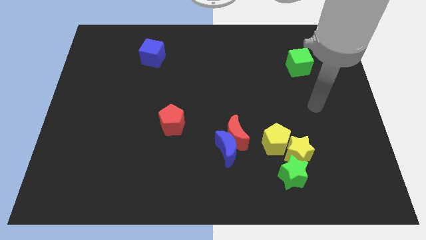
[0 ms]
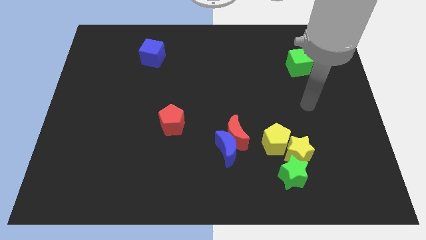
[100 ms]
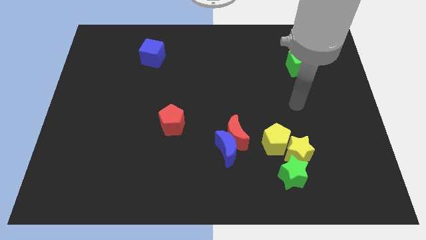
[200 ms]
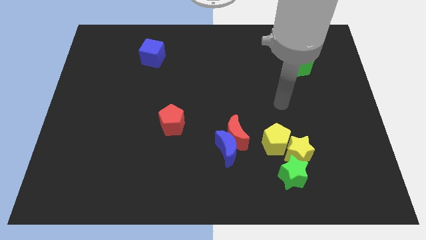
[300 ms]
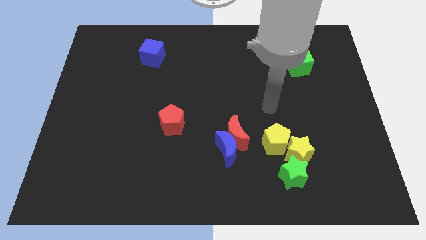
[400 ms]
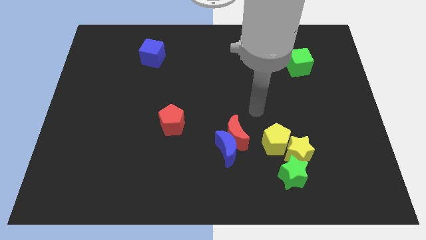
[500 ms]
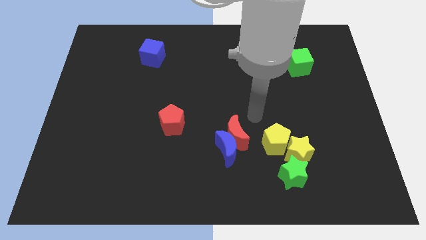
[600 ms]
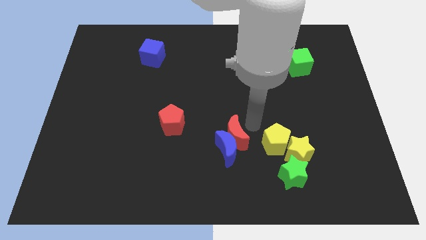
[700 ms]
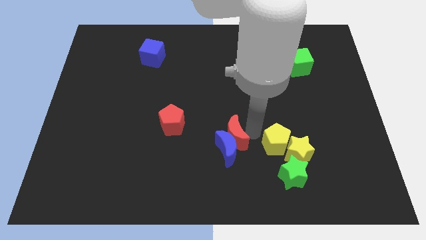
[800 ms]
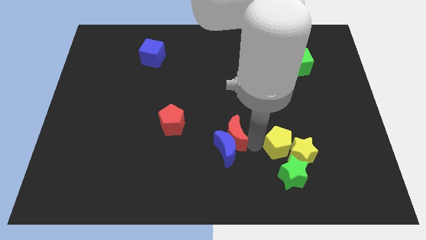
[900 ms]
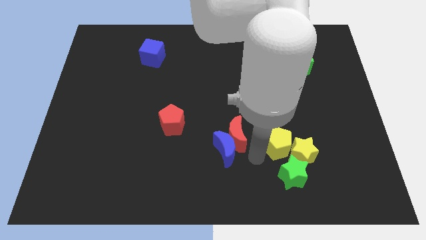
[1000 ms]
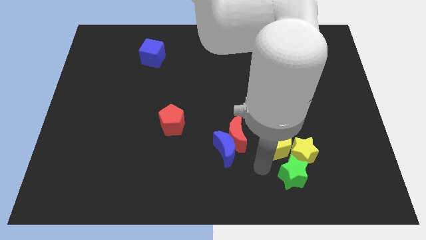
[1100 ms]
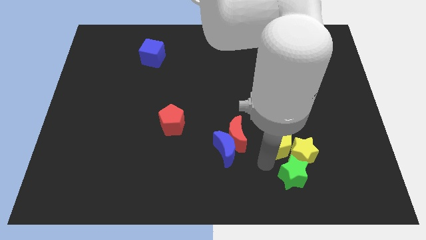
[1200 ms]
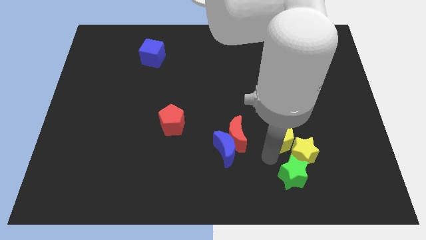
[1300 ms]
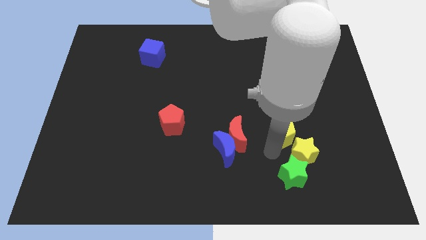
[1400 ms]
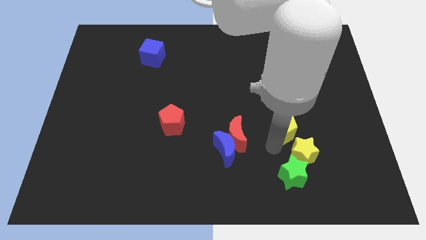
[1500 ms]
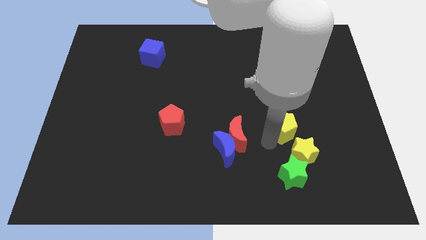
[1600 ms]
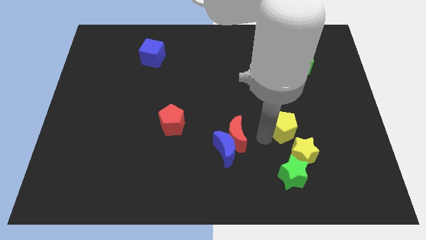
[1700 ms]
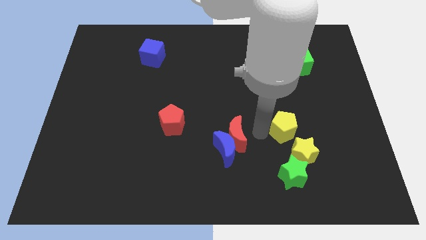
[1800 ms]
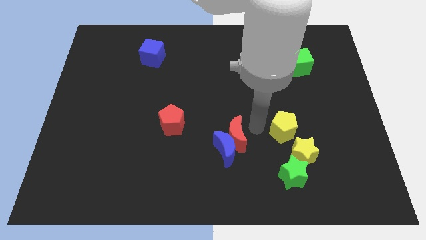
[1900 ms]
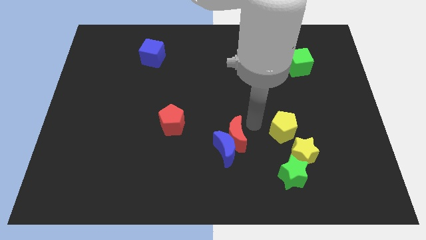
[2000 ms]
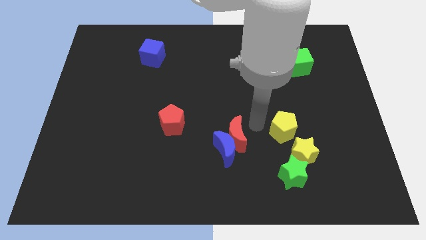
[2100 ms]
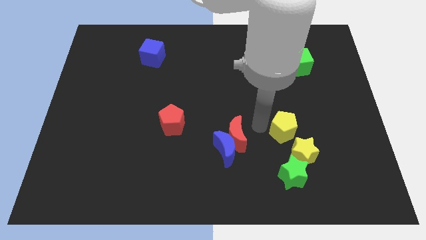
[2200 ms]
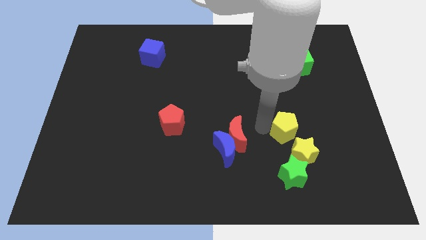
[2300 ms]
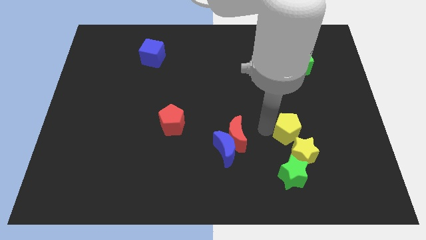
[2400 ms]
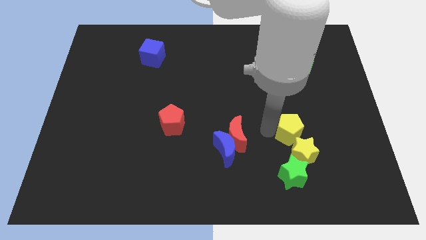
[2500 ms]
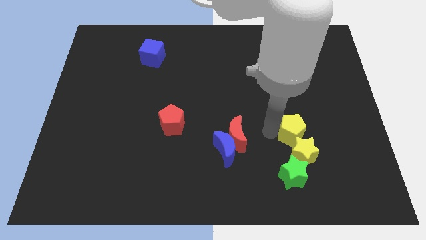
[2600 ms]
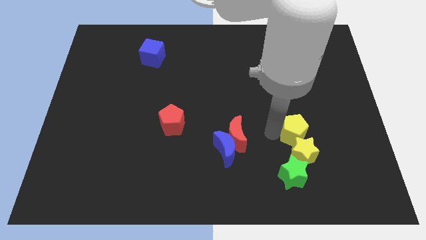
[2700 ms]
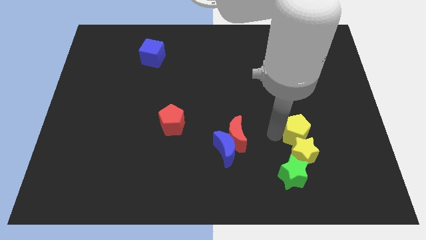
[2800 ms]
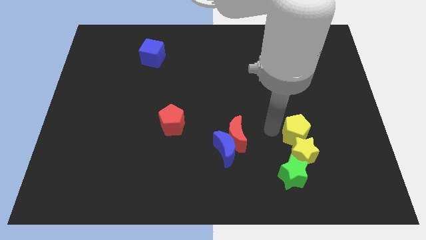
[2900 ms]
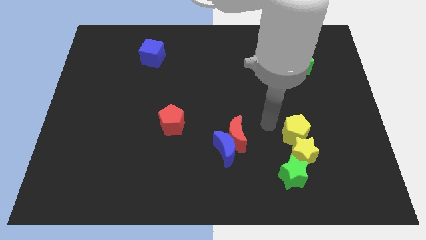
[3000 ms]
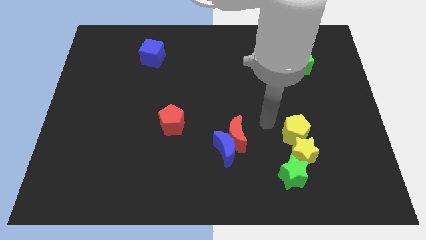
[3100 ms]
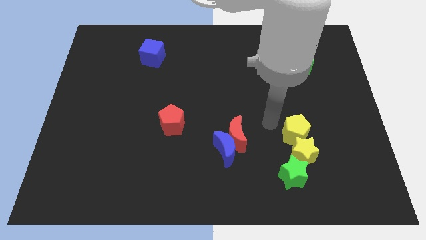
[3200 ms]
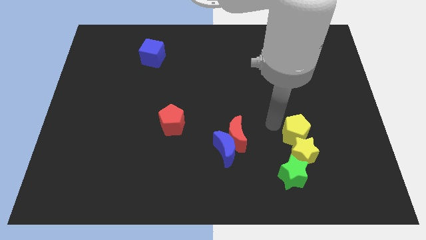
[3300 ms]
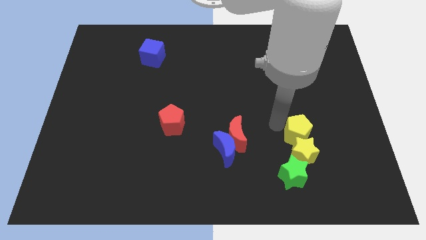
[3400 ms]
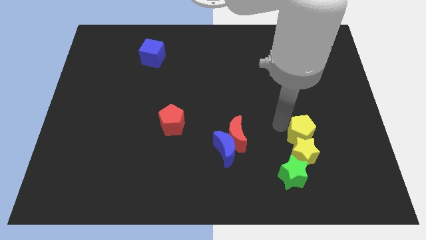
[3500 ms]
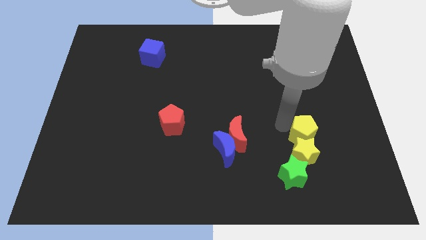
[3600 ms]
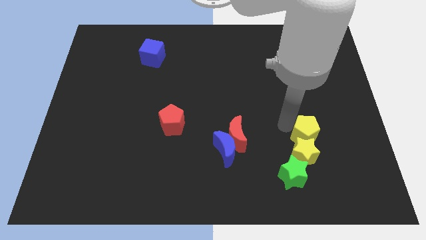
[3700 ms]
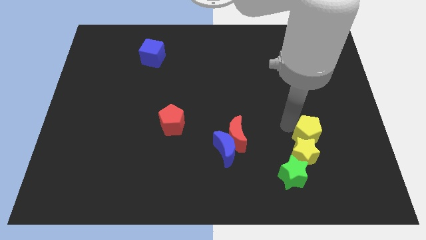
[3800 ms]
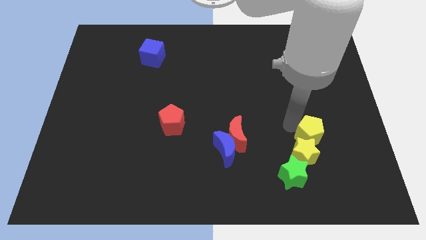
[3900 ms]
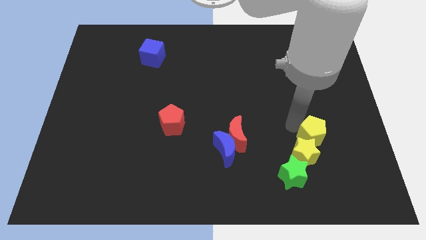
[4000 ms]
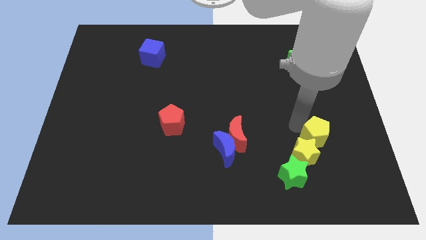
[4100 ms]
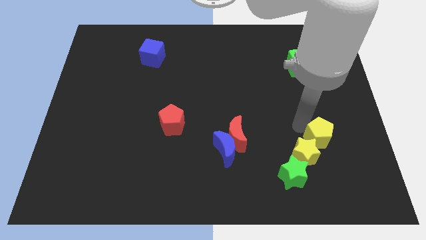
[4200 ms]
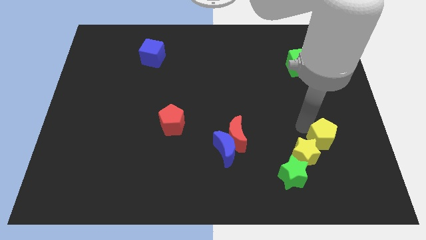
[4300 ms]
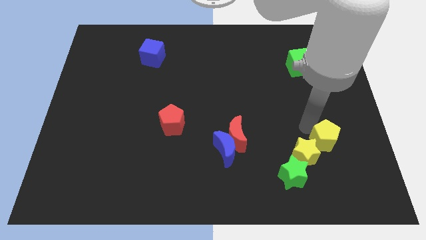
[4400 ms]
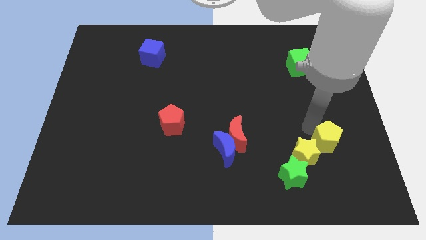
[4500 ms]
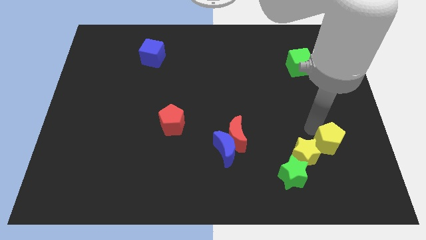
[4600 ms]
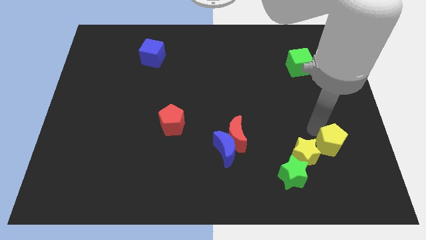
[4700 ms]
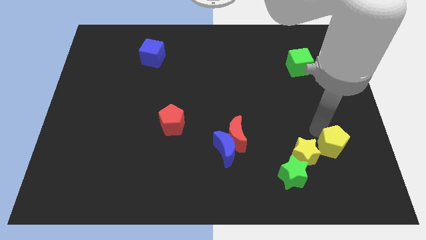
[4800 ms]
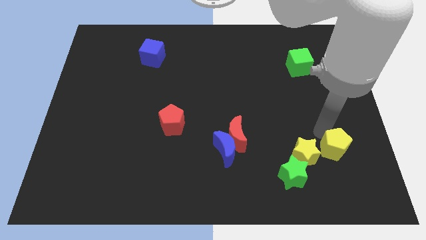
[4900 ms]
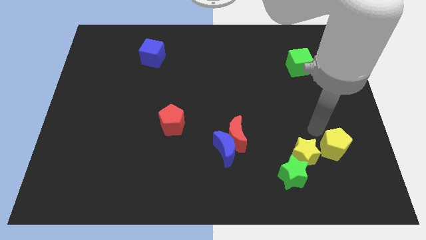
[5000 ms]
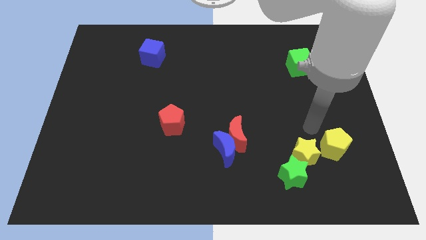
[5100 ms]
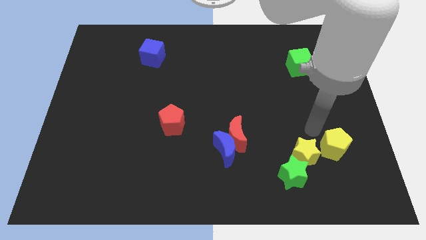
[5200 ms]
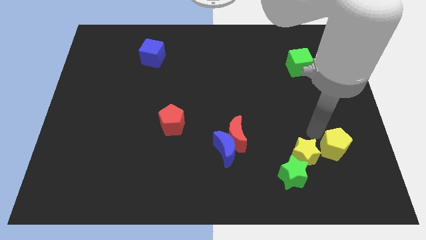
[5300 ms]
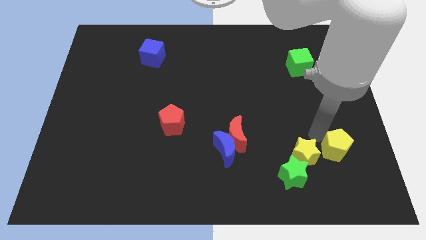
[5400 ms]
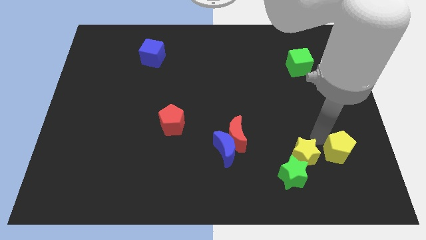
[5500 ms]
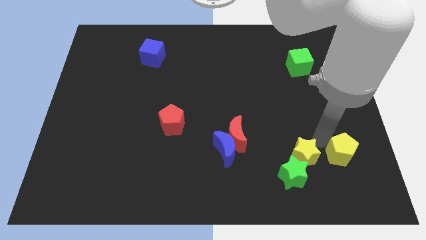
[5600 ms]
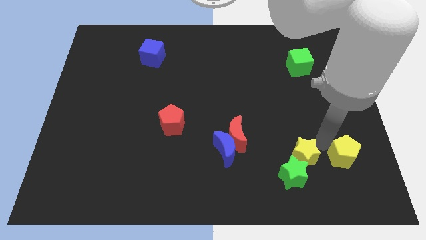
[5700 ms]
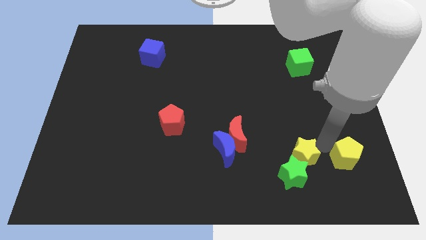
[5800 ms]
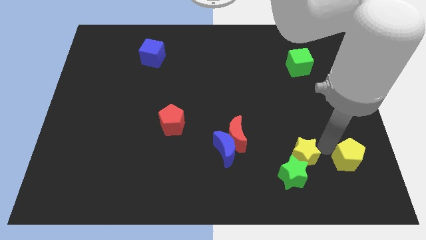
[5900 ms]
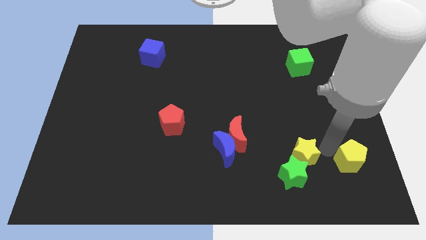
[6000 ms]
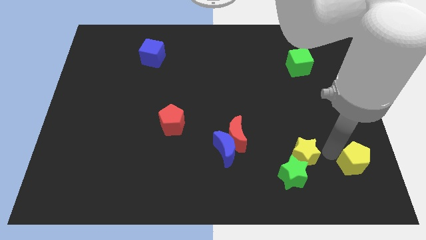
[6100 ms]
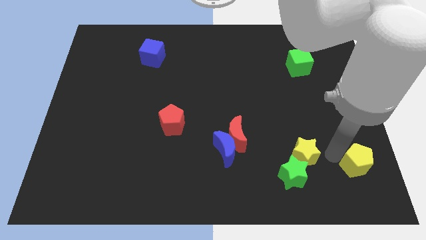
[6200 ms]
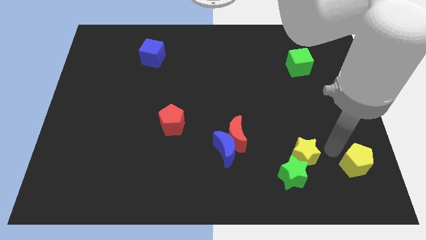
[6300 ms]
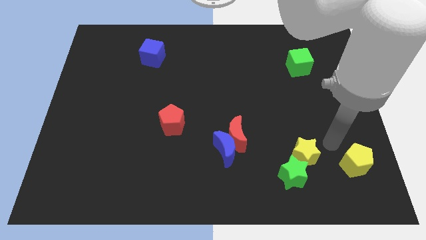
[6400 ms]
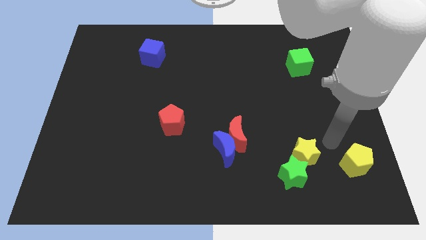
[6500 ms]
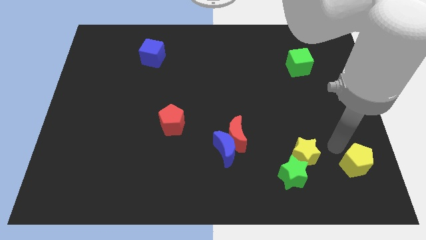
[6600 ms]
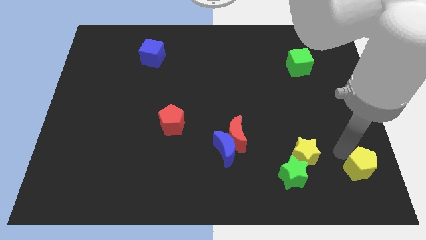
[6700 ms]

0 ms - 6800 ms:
slide the yellow pentagon to the bottom right
